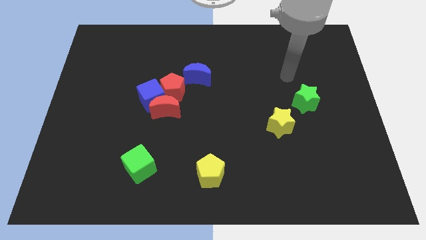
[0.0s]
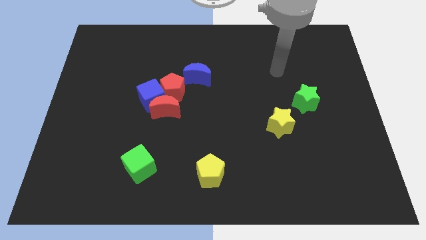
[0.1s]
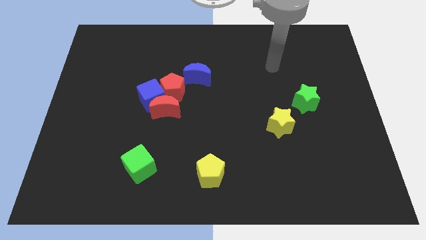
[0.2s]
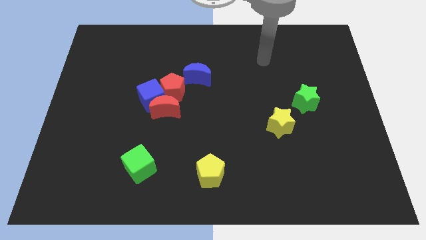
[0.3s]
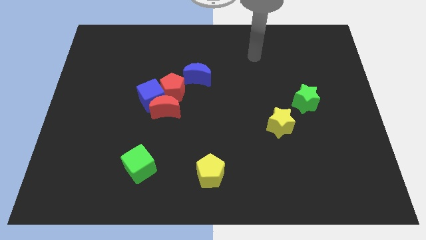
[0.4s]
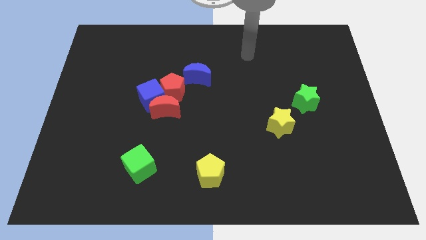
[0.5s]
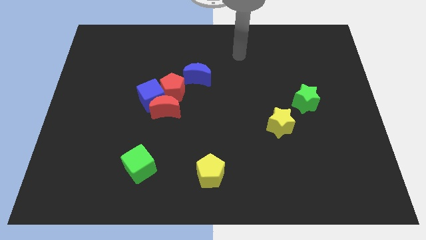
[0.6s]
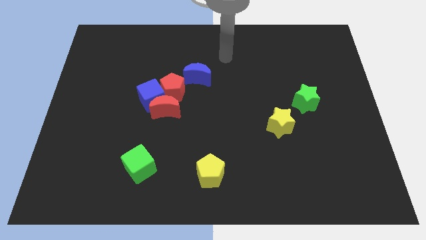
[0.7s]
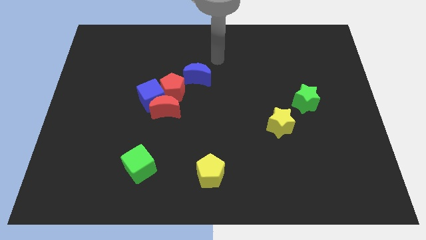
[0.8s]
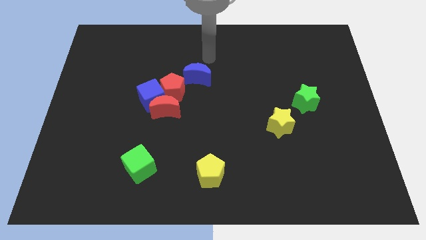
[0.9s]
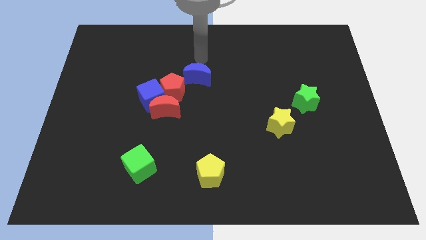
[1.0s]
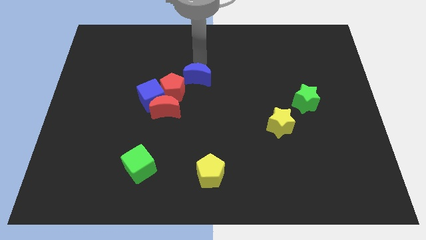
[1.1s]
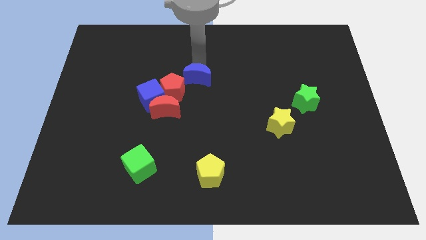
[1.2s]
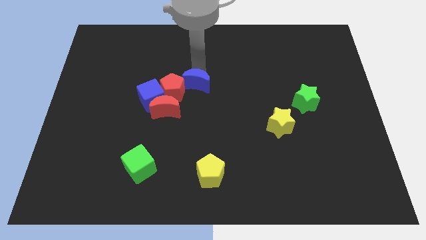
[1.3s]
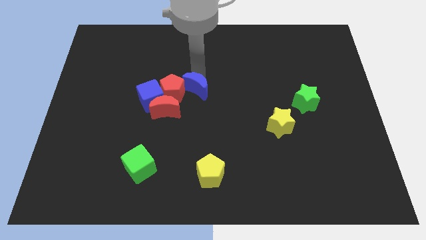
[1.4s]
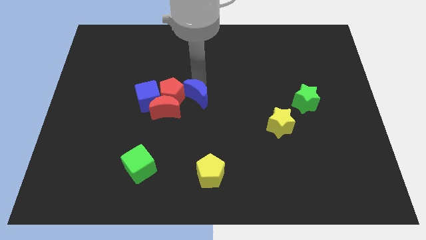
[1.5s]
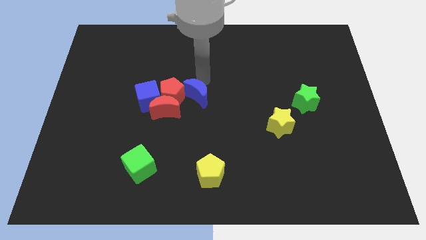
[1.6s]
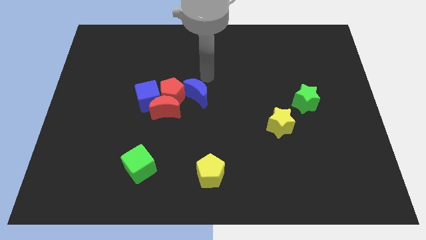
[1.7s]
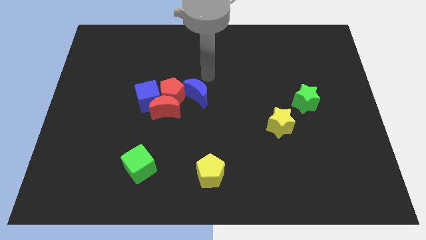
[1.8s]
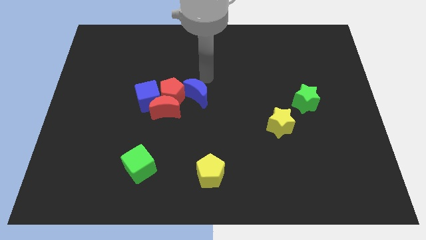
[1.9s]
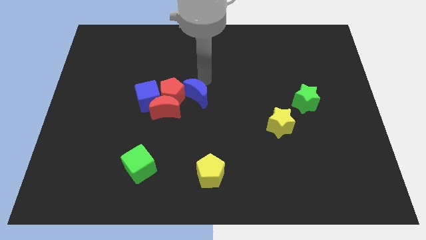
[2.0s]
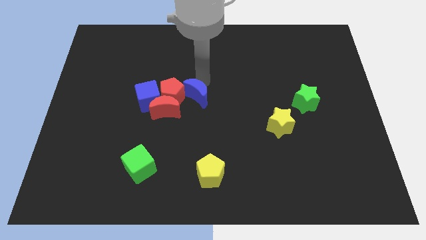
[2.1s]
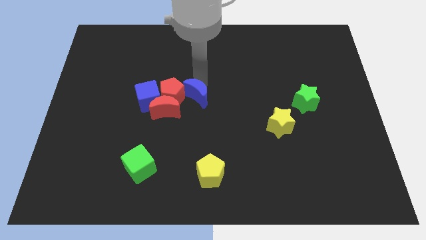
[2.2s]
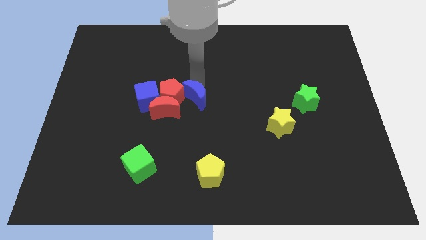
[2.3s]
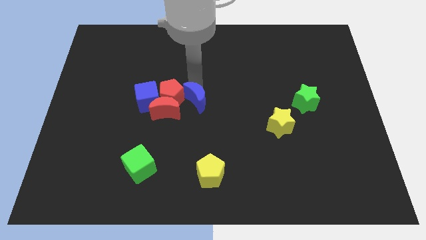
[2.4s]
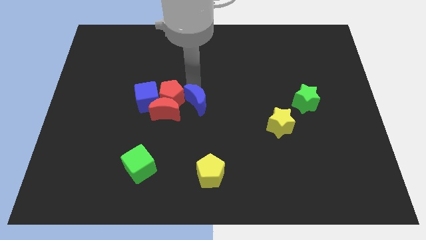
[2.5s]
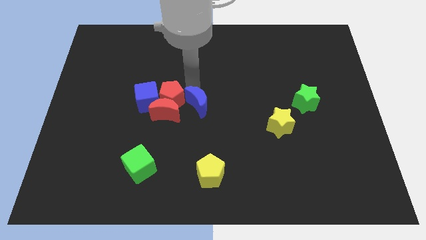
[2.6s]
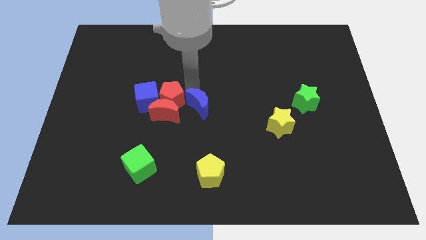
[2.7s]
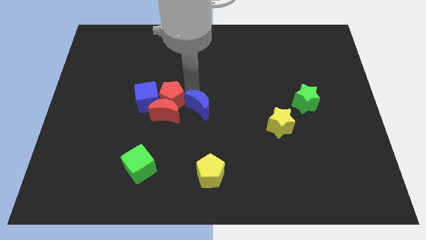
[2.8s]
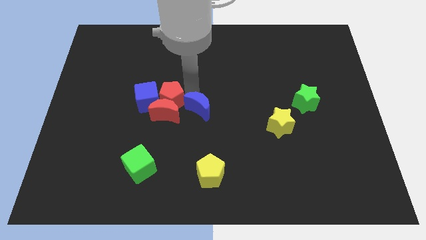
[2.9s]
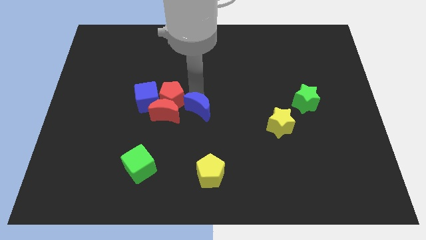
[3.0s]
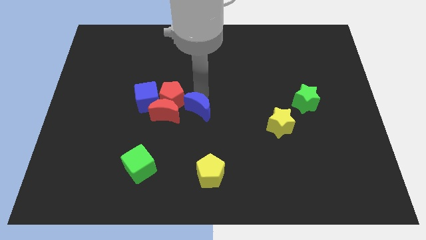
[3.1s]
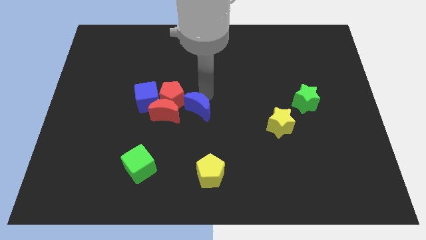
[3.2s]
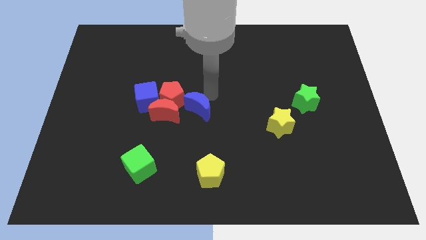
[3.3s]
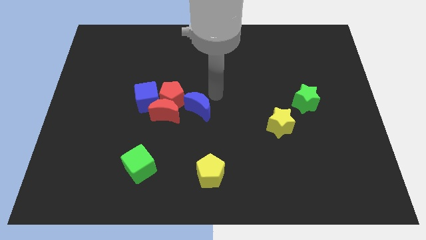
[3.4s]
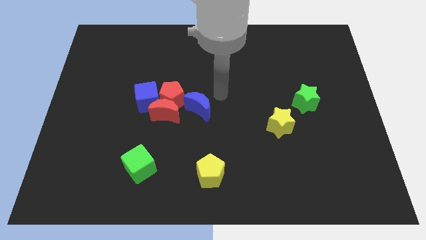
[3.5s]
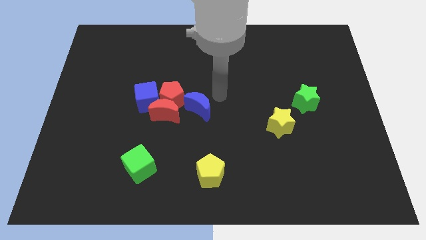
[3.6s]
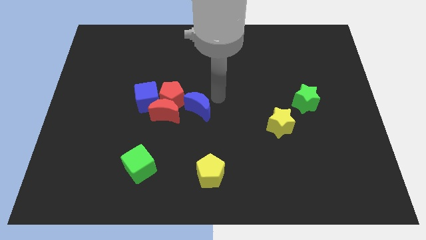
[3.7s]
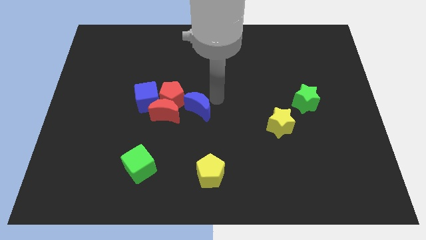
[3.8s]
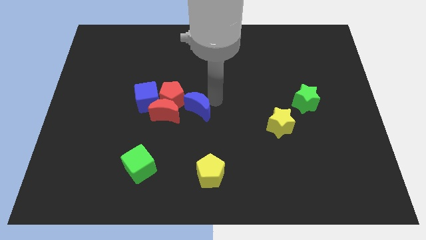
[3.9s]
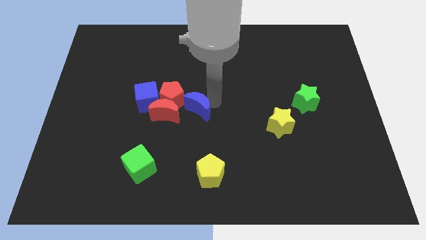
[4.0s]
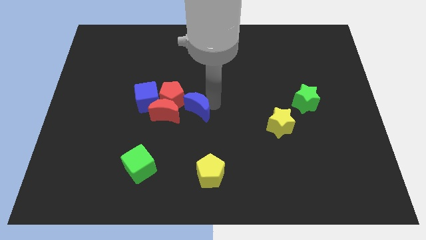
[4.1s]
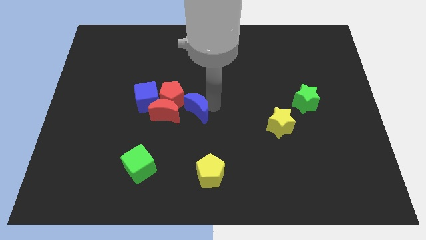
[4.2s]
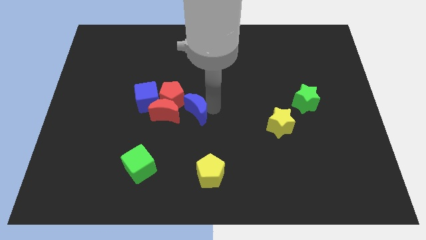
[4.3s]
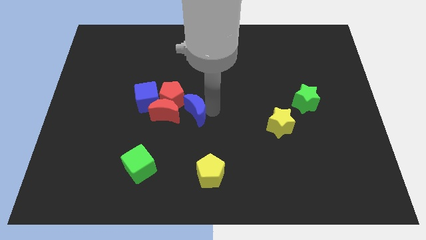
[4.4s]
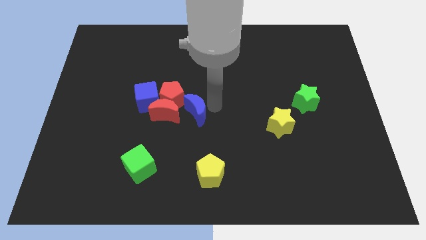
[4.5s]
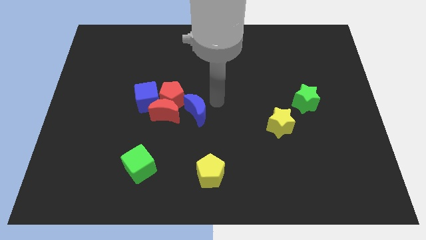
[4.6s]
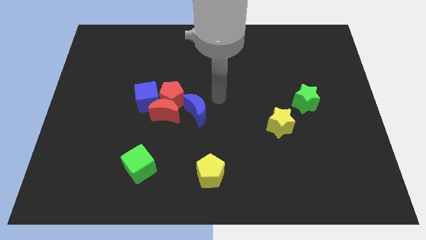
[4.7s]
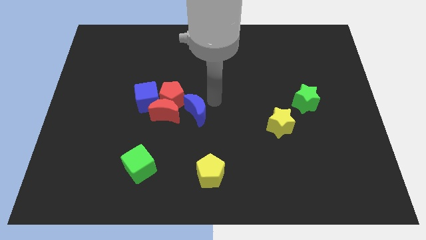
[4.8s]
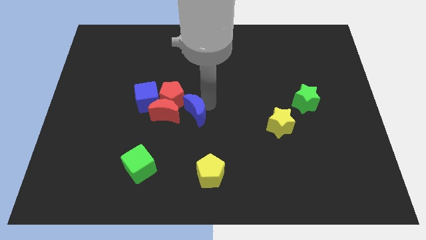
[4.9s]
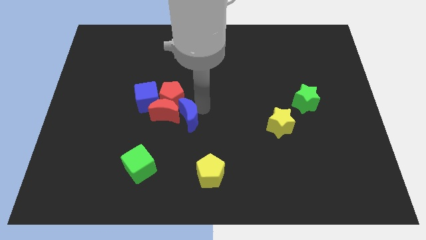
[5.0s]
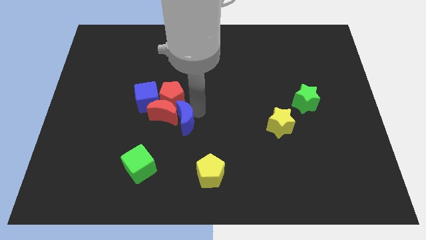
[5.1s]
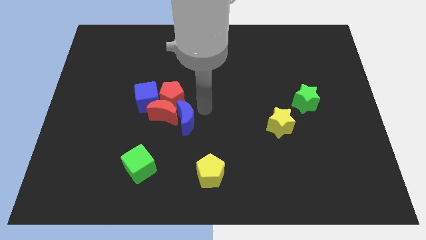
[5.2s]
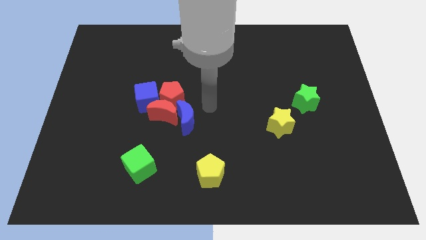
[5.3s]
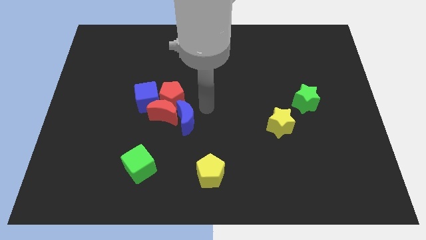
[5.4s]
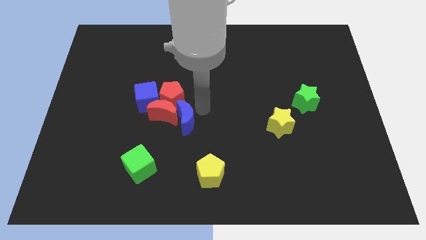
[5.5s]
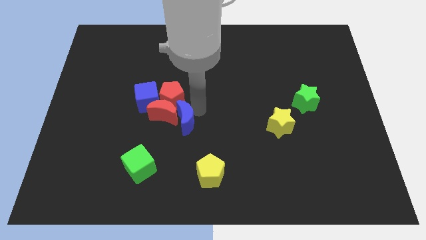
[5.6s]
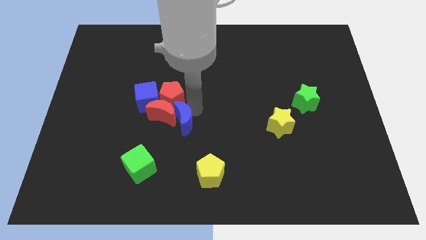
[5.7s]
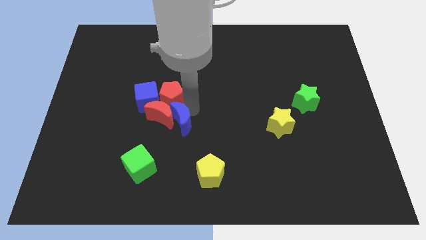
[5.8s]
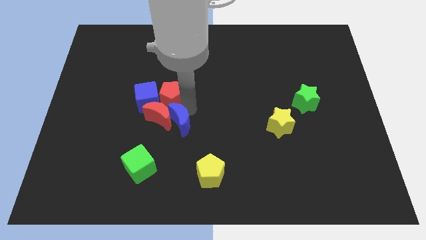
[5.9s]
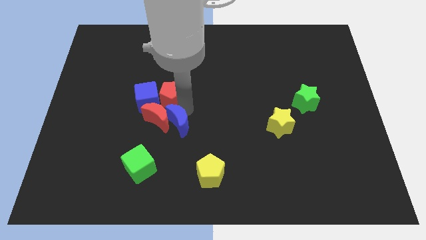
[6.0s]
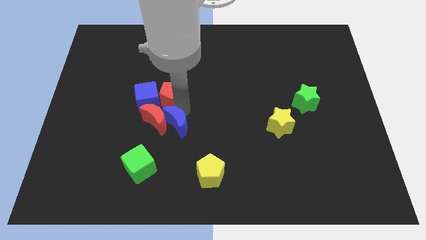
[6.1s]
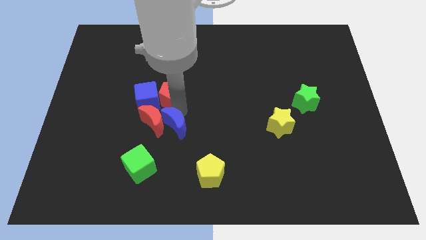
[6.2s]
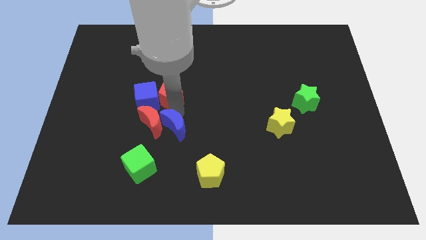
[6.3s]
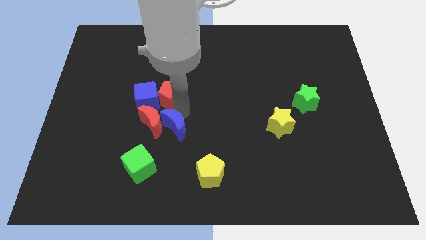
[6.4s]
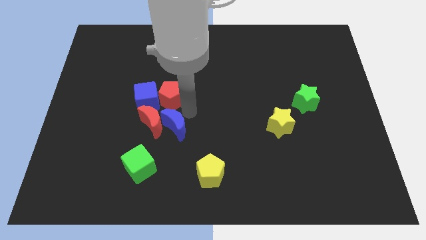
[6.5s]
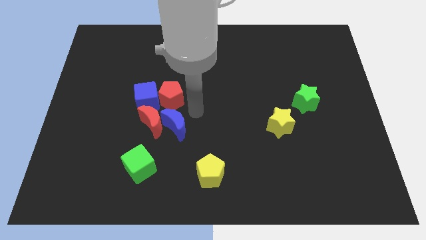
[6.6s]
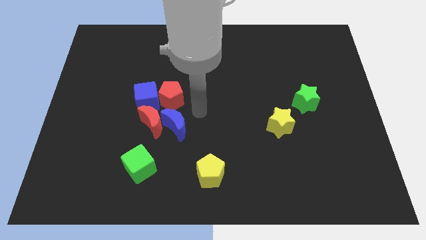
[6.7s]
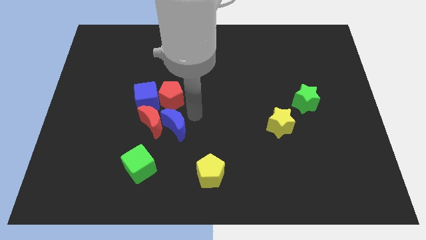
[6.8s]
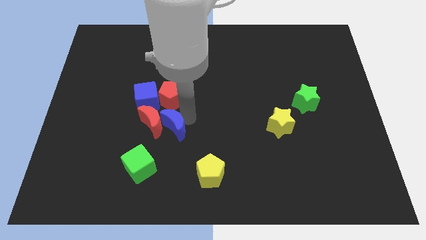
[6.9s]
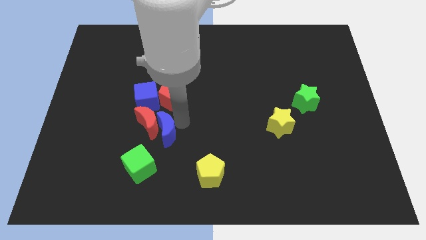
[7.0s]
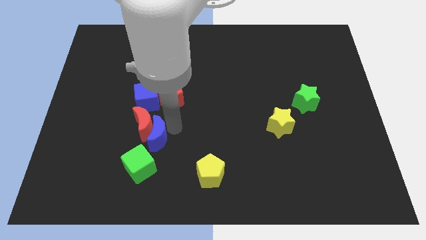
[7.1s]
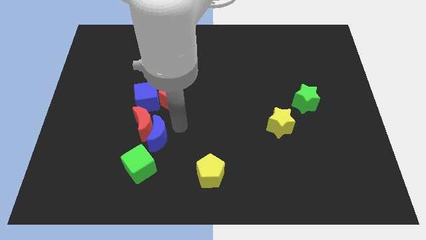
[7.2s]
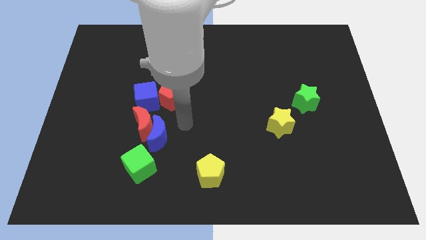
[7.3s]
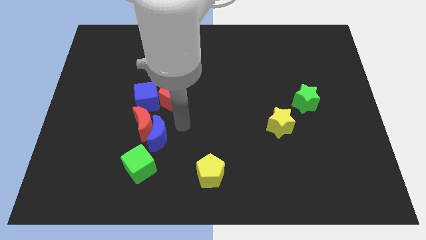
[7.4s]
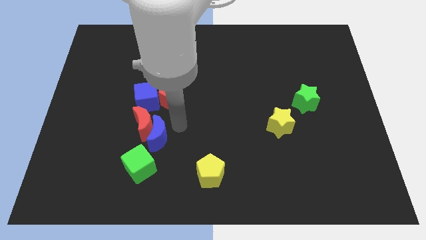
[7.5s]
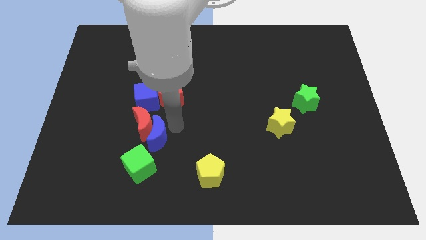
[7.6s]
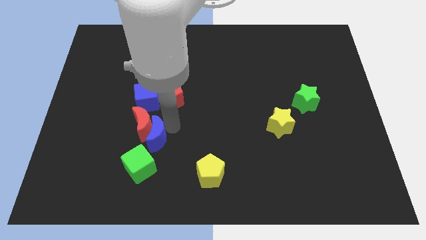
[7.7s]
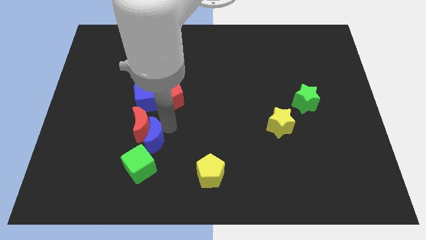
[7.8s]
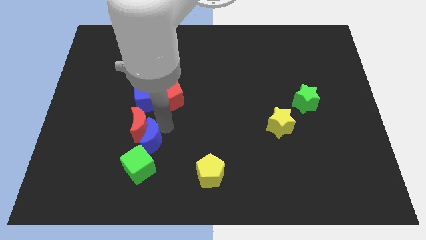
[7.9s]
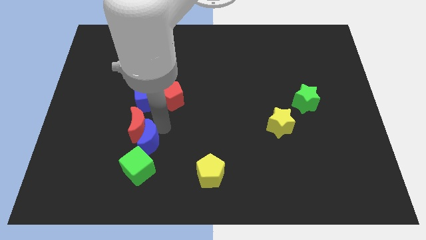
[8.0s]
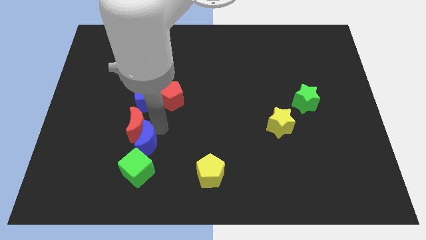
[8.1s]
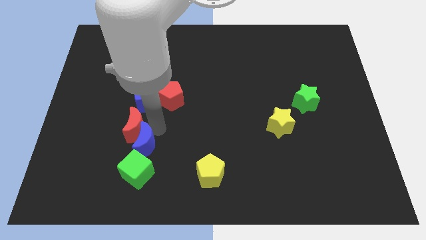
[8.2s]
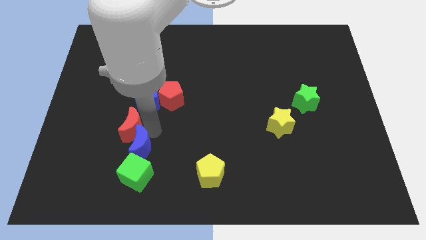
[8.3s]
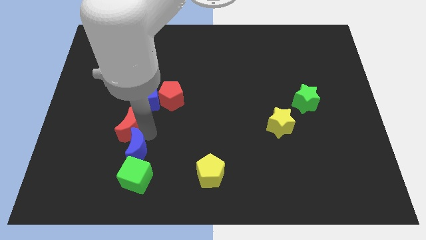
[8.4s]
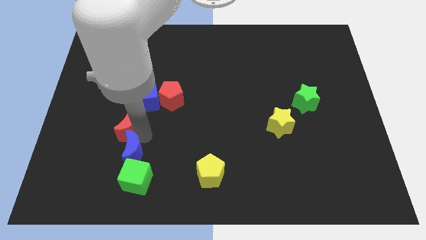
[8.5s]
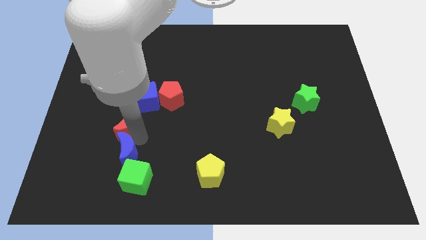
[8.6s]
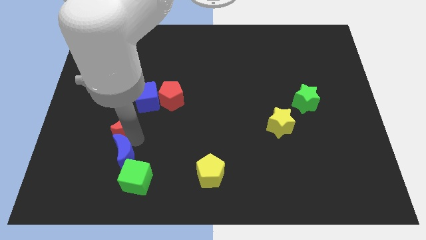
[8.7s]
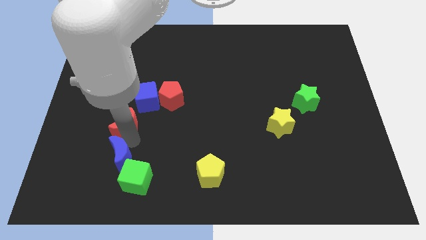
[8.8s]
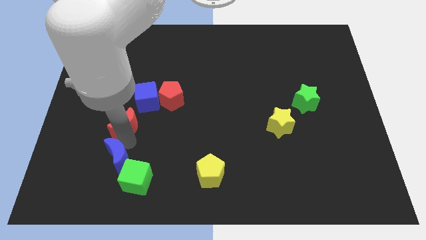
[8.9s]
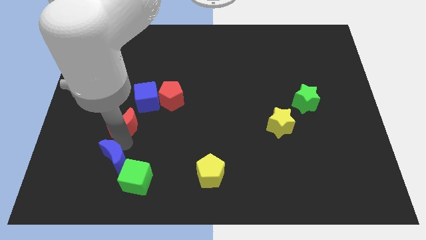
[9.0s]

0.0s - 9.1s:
put the blue moon just left of the green cube
